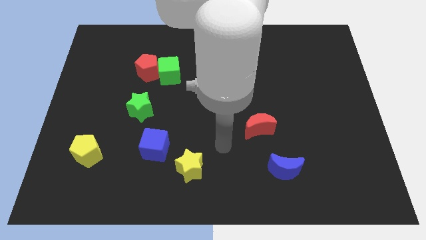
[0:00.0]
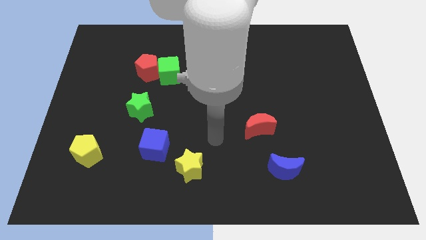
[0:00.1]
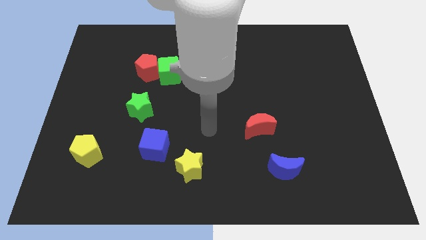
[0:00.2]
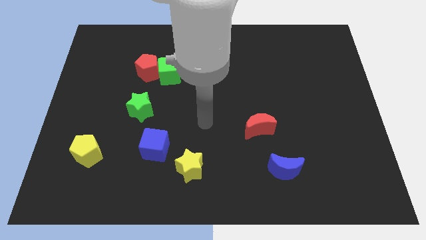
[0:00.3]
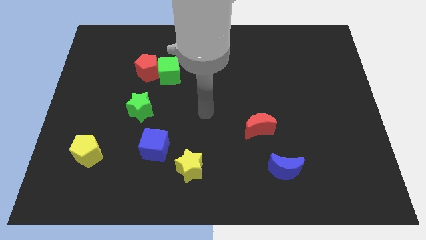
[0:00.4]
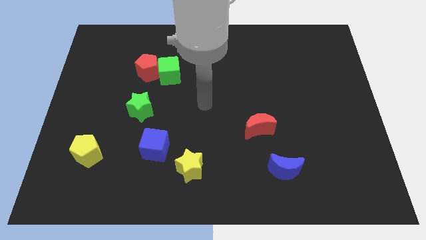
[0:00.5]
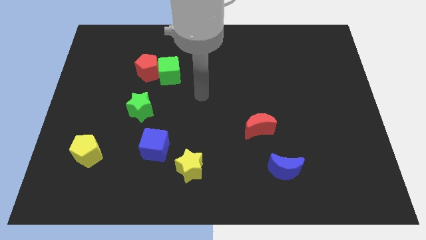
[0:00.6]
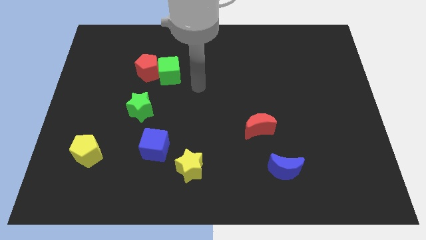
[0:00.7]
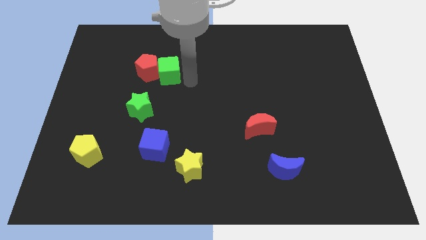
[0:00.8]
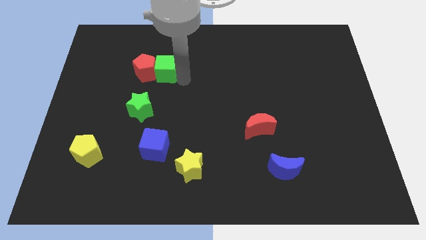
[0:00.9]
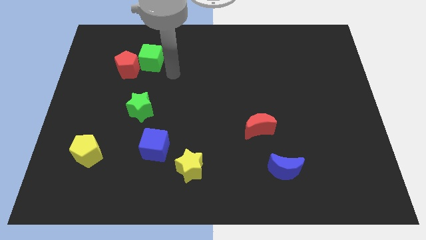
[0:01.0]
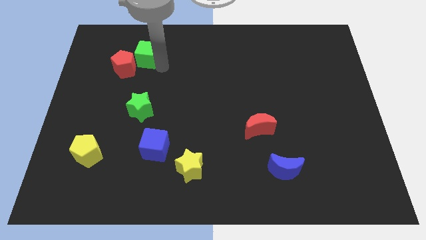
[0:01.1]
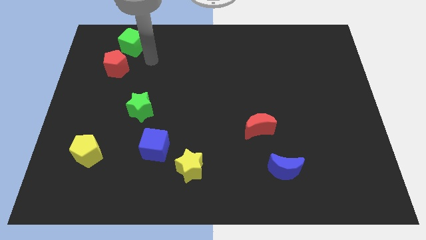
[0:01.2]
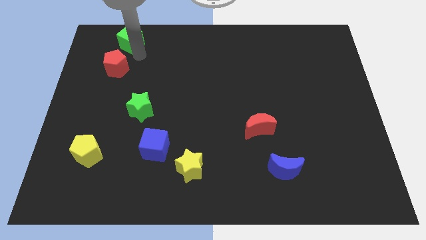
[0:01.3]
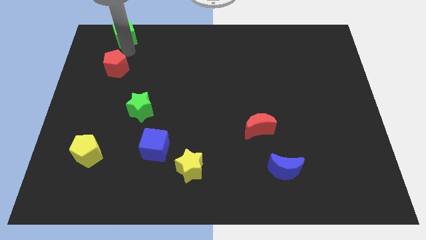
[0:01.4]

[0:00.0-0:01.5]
pull the red pentagon apart from the green cube

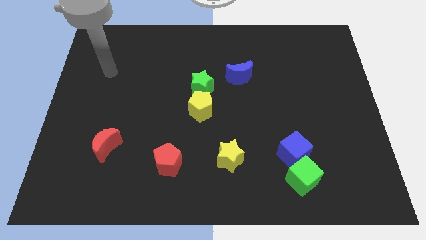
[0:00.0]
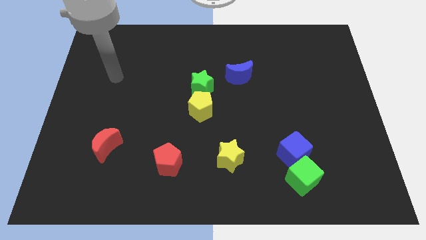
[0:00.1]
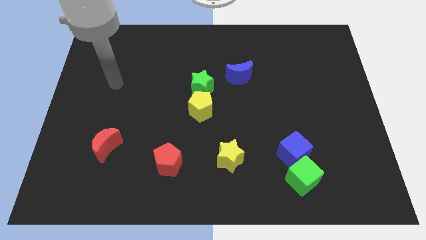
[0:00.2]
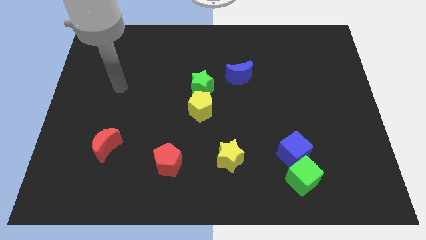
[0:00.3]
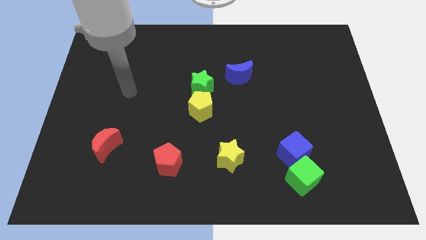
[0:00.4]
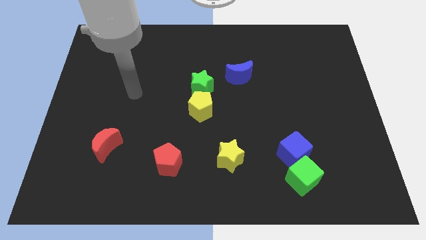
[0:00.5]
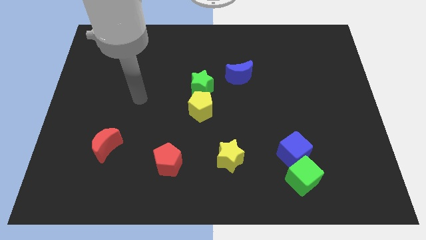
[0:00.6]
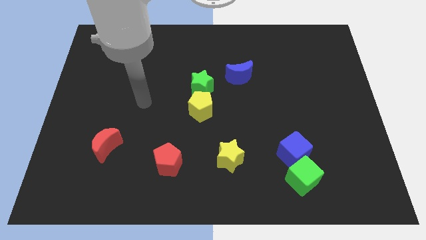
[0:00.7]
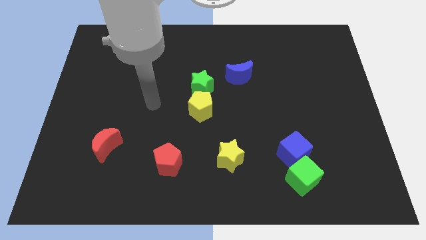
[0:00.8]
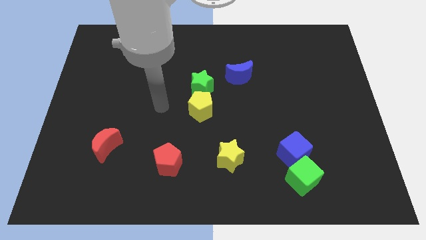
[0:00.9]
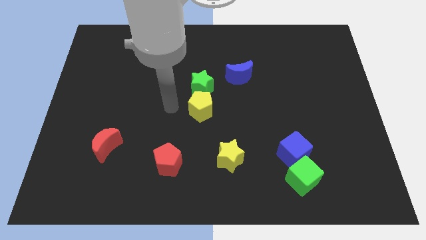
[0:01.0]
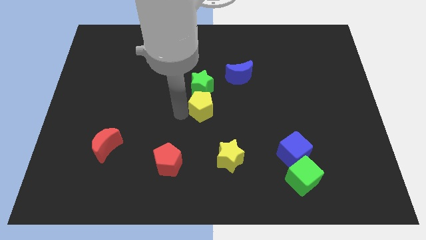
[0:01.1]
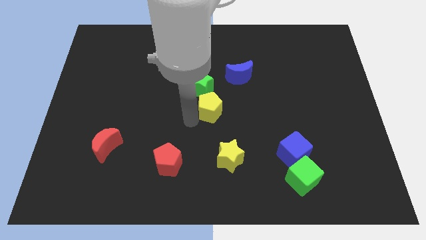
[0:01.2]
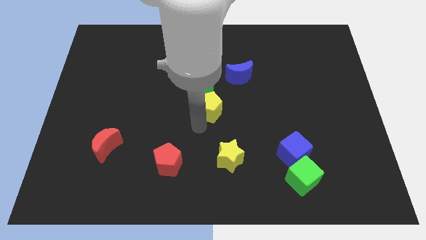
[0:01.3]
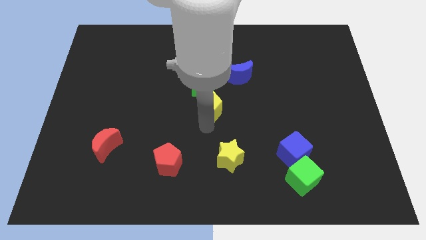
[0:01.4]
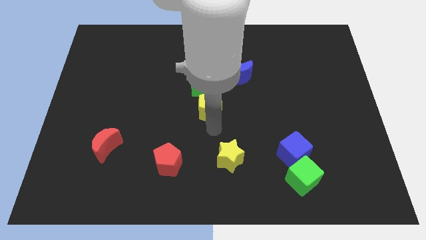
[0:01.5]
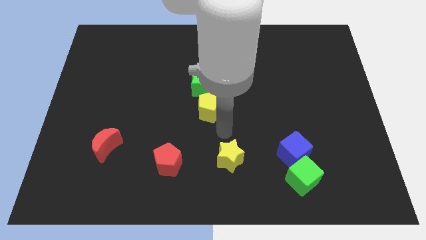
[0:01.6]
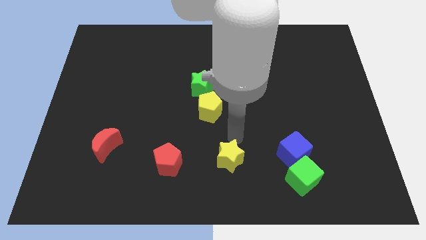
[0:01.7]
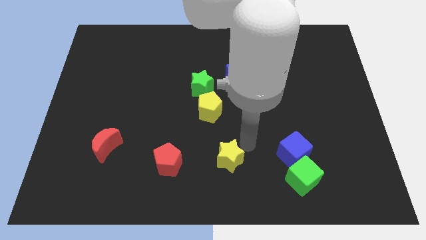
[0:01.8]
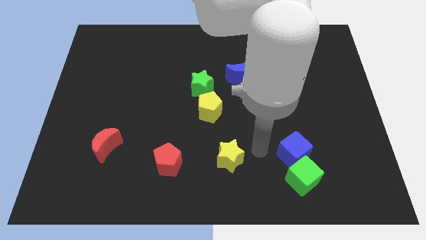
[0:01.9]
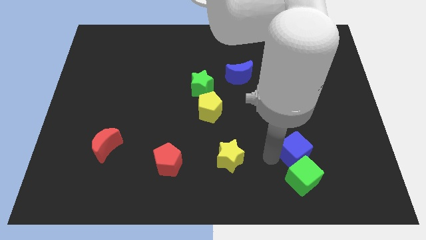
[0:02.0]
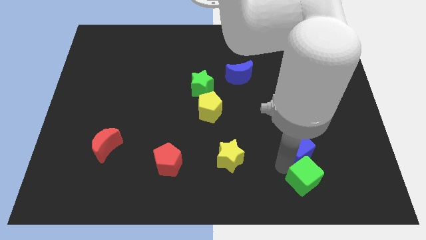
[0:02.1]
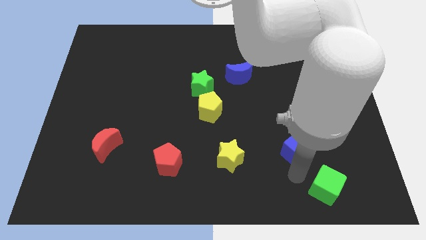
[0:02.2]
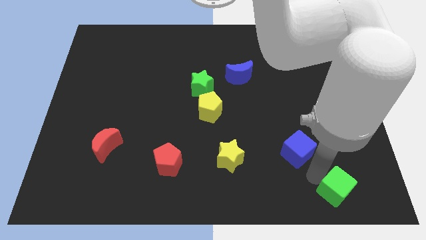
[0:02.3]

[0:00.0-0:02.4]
separate the blue cube from the green cube

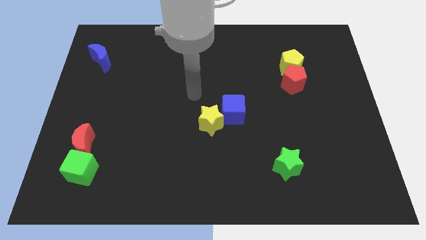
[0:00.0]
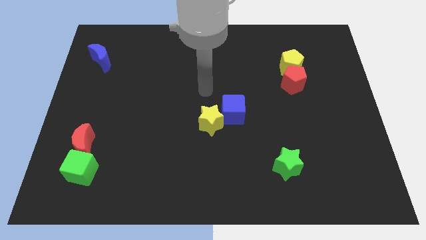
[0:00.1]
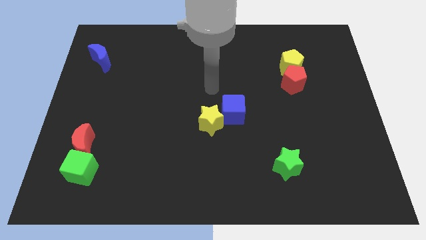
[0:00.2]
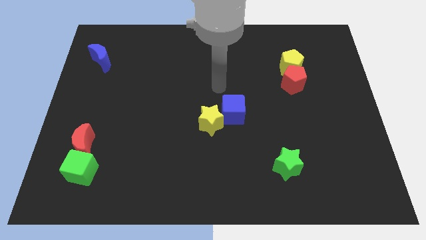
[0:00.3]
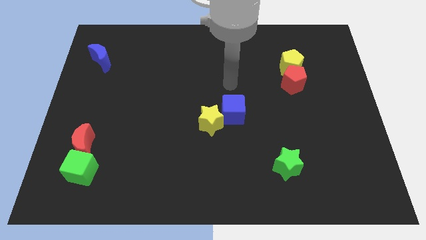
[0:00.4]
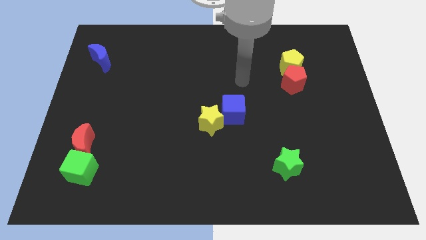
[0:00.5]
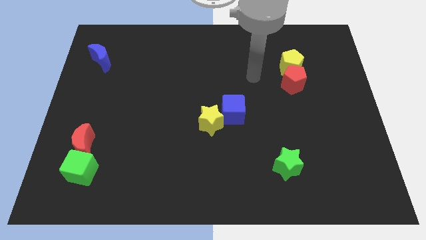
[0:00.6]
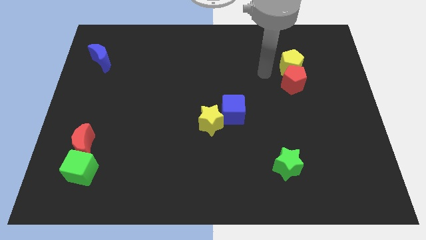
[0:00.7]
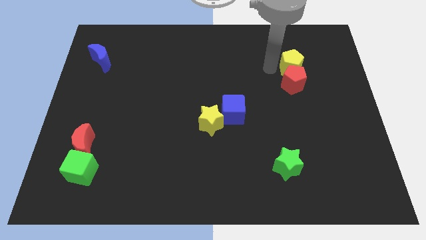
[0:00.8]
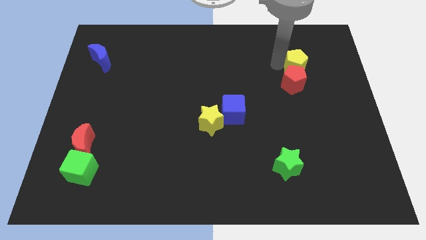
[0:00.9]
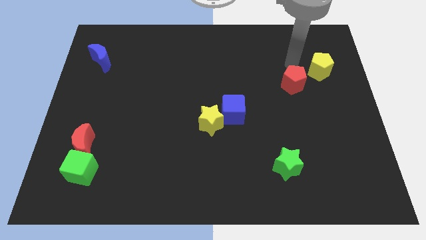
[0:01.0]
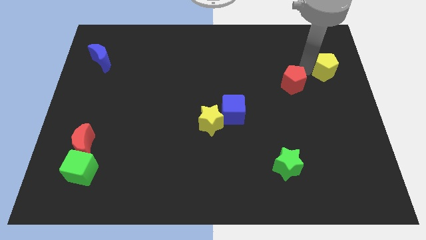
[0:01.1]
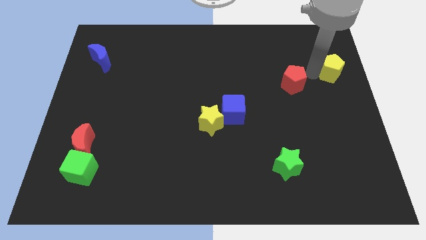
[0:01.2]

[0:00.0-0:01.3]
separate the red pentagon from the yellow pentagon

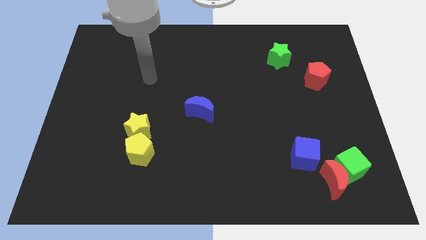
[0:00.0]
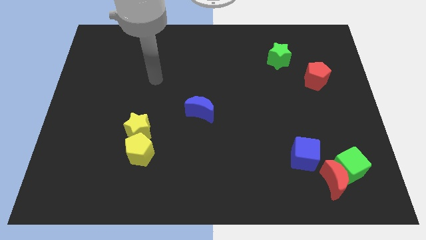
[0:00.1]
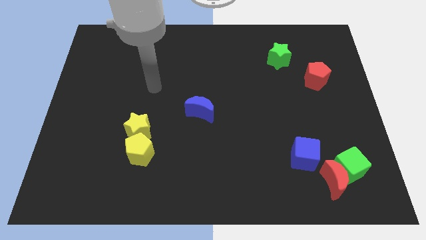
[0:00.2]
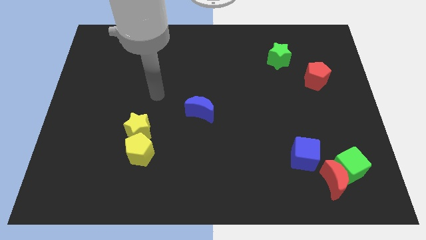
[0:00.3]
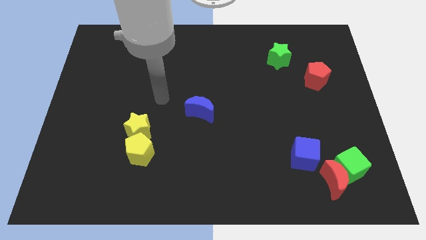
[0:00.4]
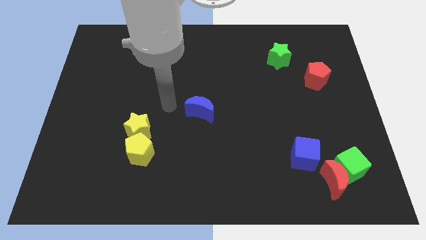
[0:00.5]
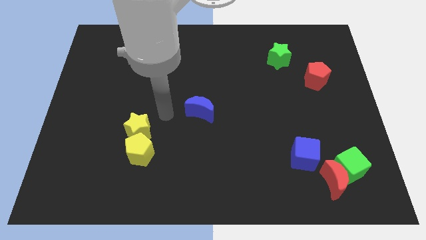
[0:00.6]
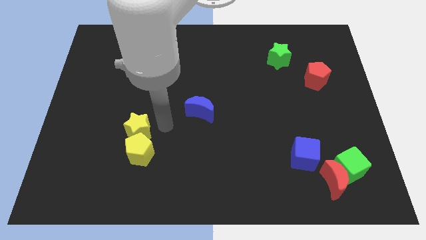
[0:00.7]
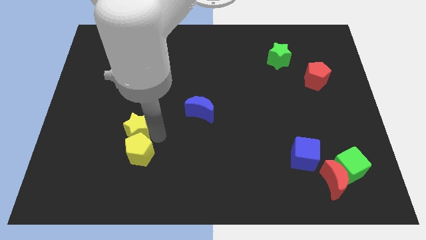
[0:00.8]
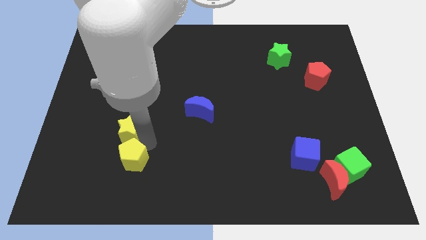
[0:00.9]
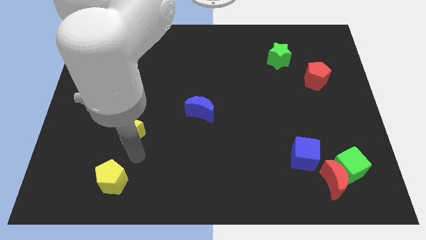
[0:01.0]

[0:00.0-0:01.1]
separate the yellow star from the yellow pentagon

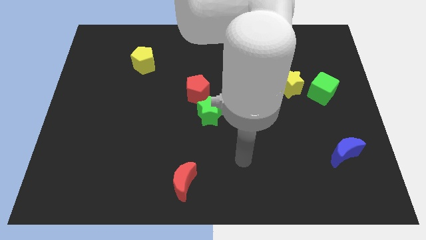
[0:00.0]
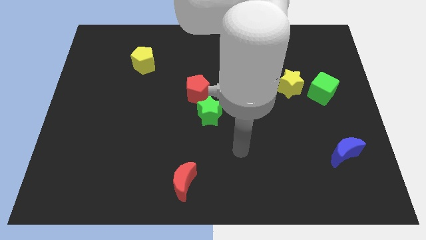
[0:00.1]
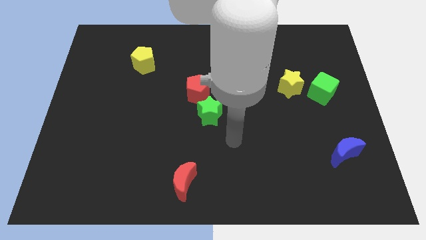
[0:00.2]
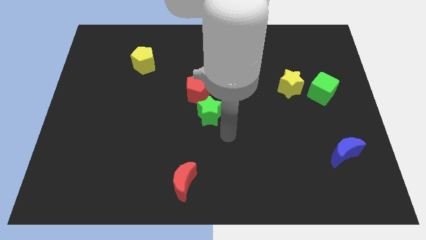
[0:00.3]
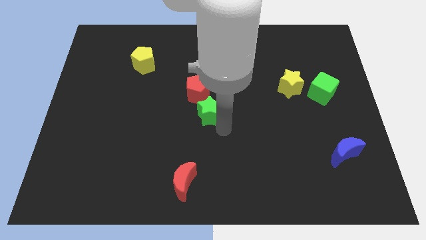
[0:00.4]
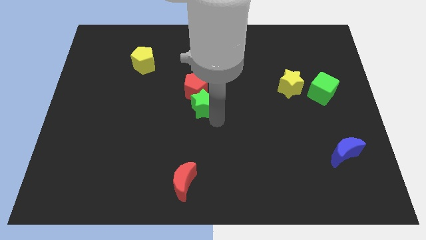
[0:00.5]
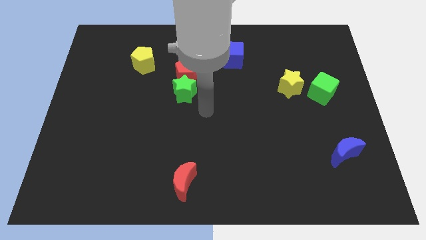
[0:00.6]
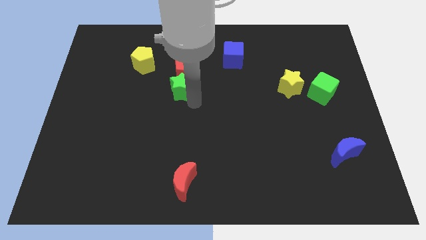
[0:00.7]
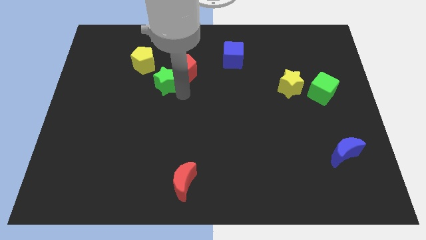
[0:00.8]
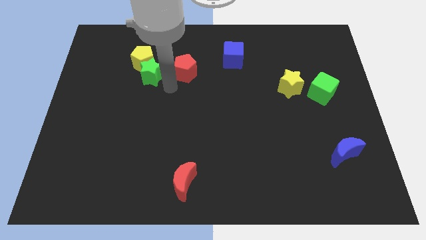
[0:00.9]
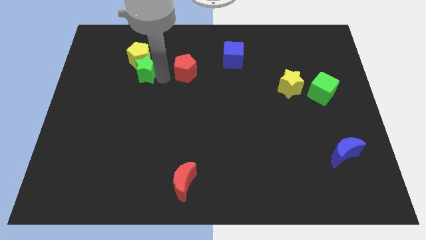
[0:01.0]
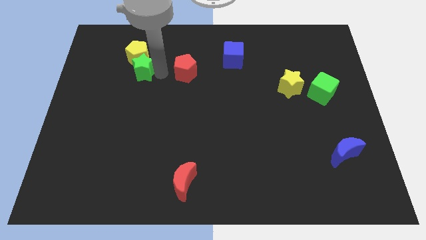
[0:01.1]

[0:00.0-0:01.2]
separate the red pentagon from the green star

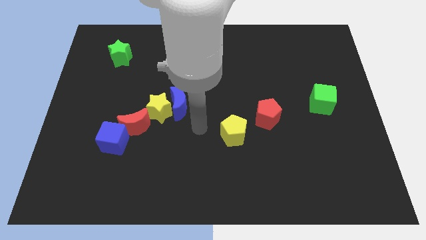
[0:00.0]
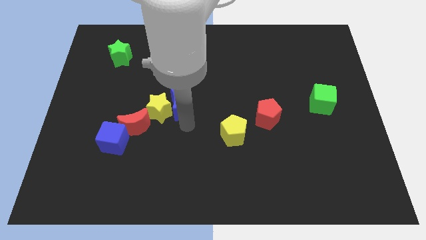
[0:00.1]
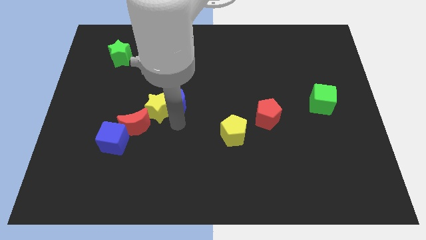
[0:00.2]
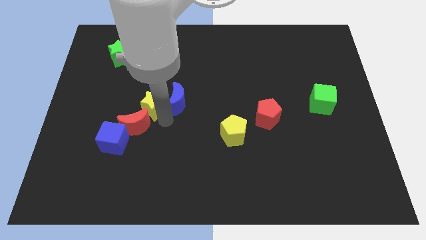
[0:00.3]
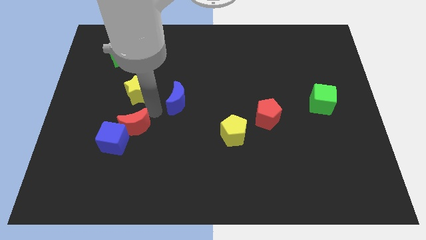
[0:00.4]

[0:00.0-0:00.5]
pull the blue moon apart from the yellow star

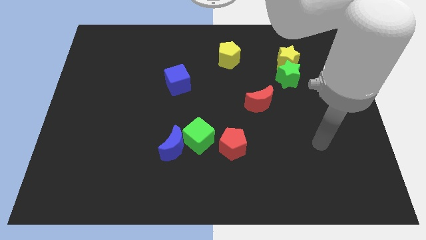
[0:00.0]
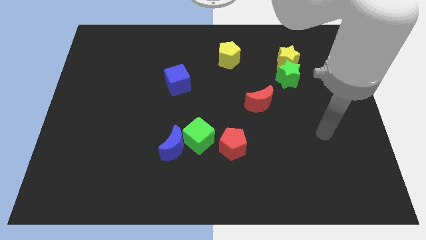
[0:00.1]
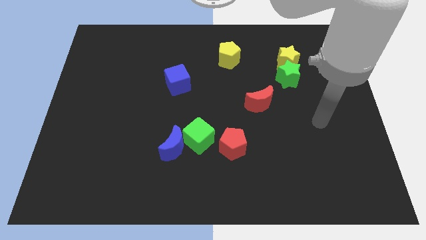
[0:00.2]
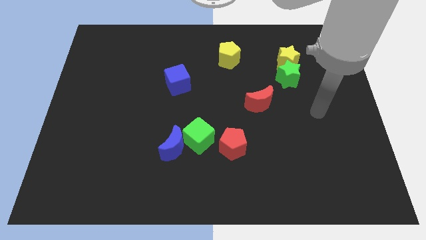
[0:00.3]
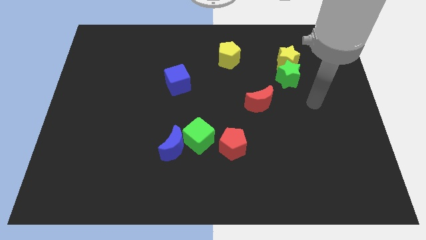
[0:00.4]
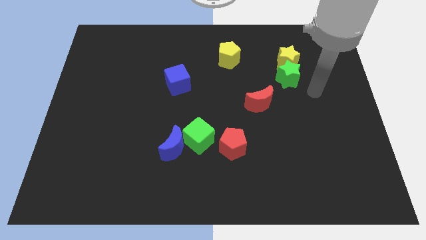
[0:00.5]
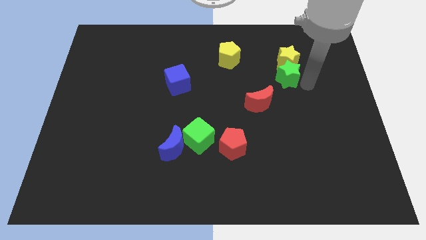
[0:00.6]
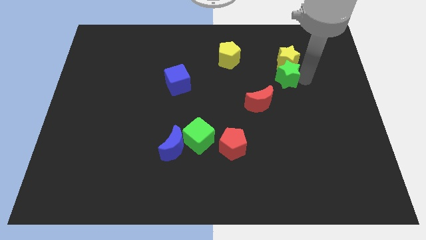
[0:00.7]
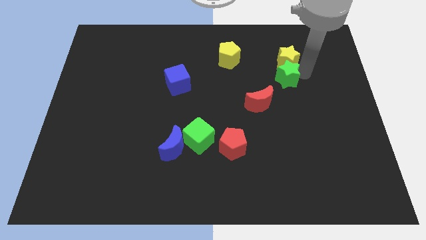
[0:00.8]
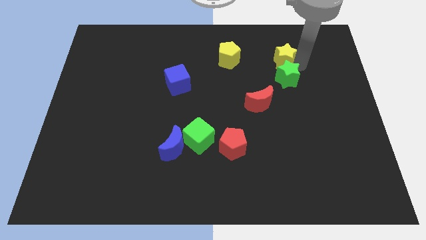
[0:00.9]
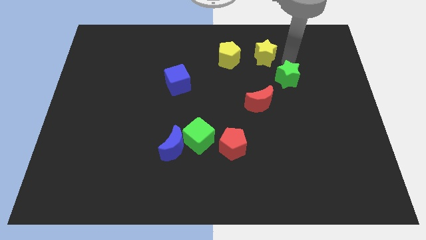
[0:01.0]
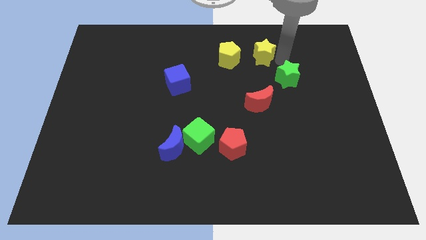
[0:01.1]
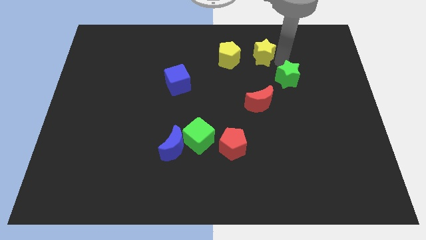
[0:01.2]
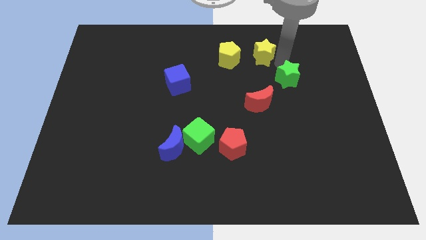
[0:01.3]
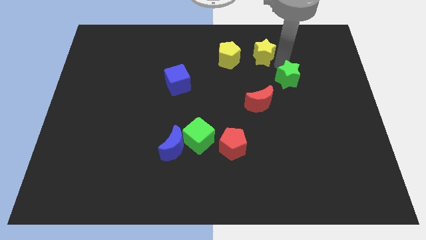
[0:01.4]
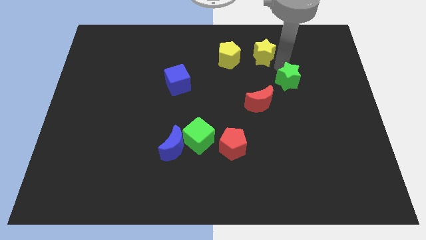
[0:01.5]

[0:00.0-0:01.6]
separate the green star from the yellow star
